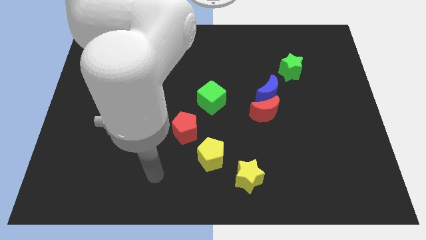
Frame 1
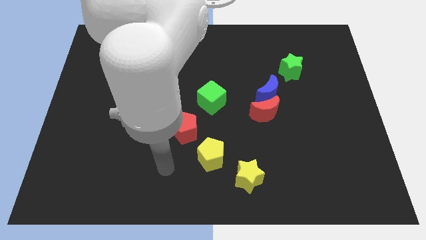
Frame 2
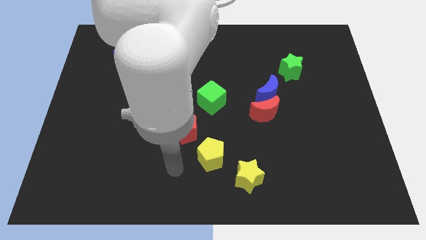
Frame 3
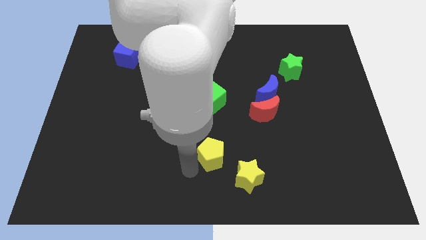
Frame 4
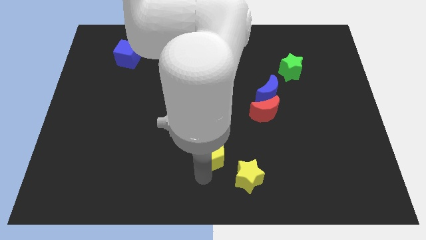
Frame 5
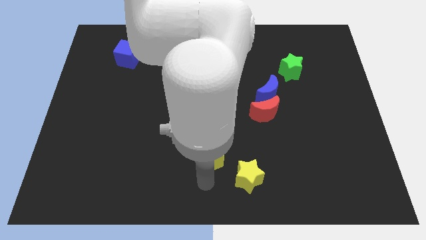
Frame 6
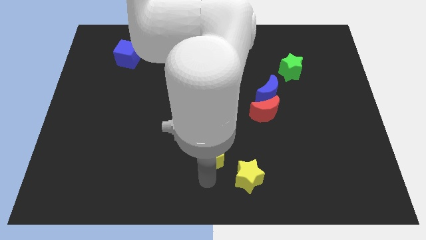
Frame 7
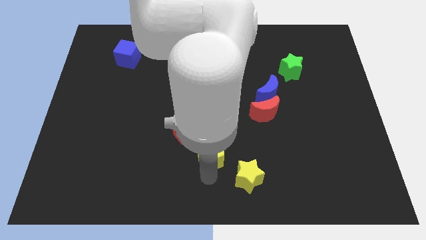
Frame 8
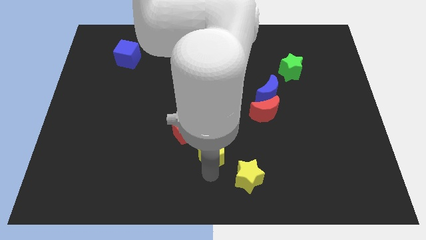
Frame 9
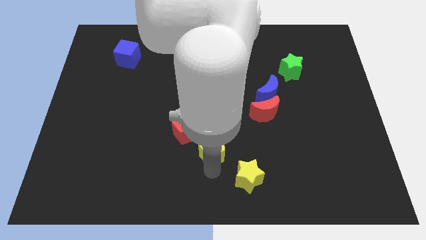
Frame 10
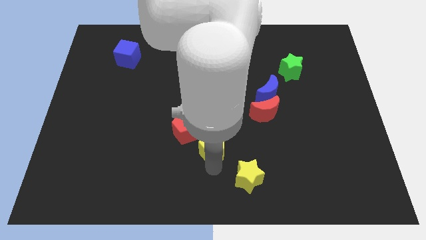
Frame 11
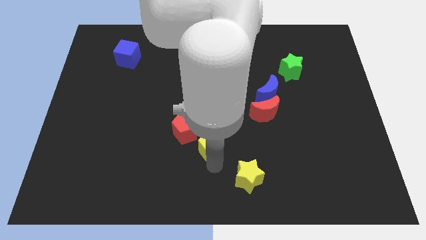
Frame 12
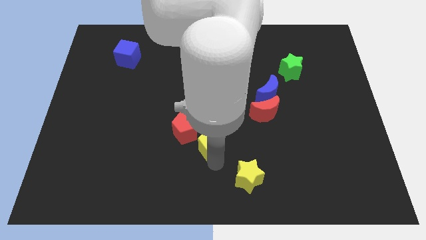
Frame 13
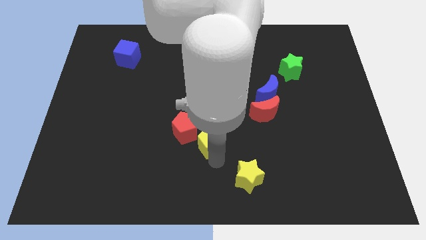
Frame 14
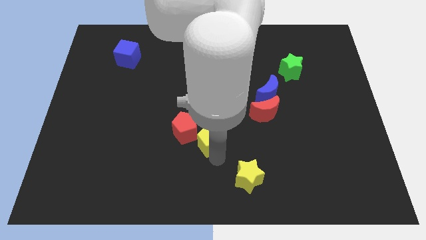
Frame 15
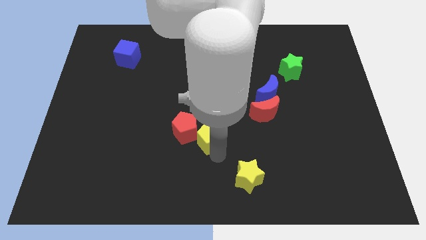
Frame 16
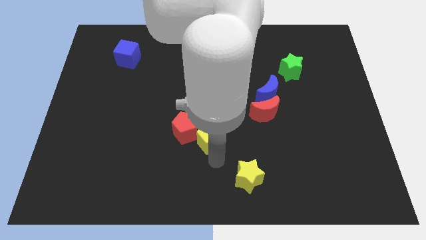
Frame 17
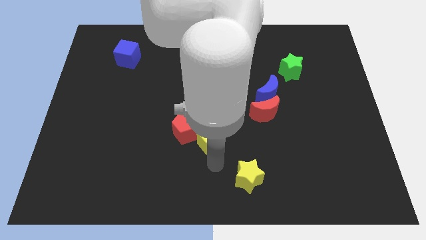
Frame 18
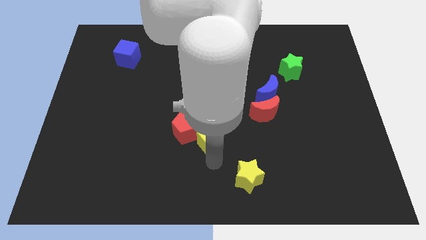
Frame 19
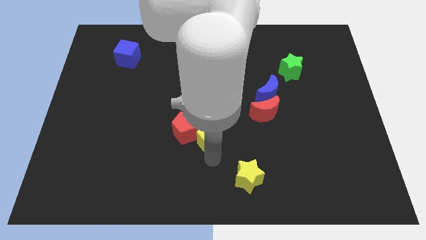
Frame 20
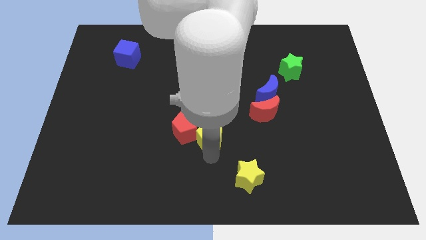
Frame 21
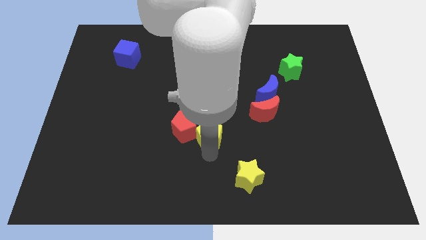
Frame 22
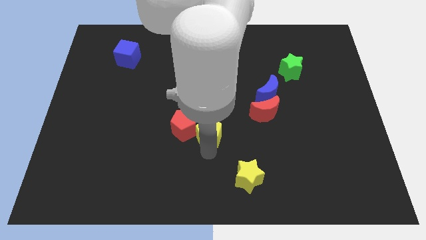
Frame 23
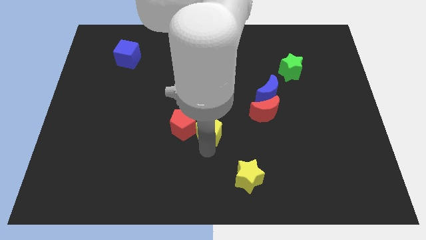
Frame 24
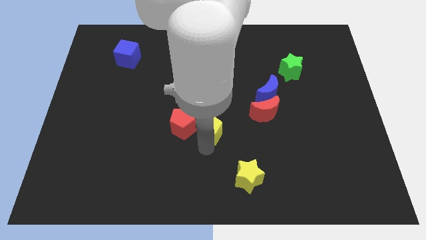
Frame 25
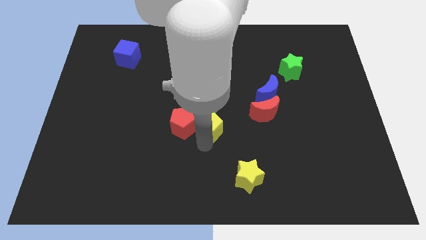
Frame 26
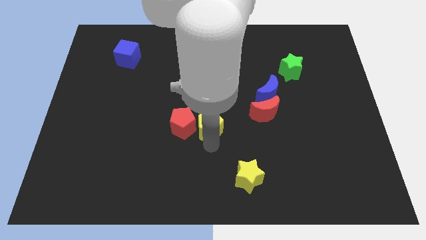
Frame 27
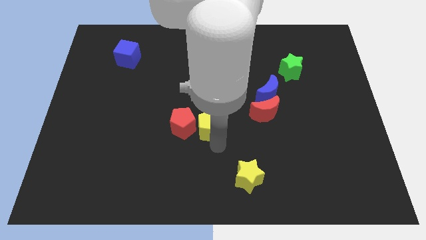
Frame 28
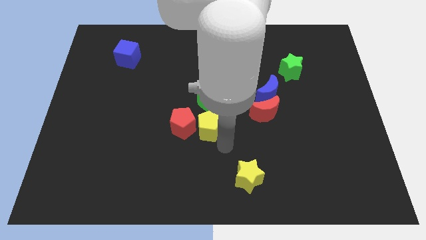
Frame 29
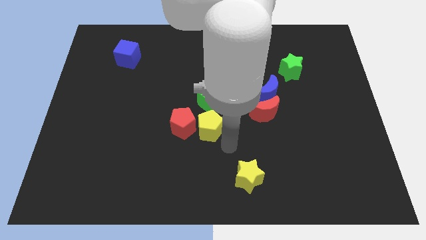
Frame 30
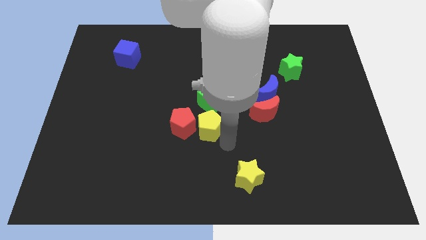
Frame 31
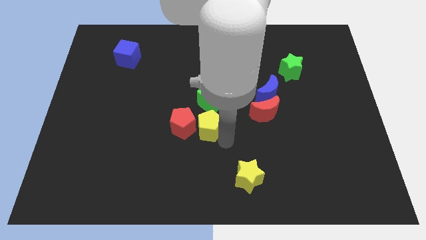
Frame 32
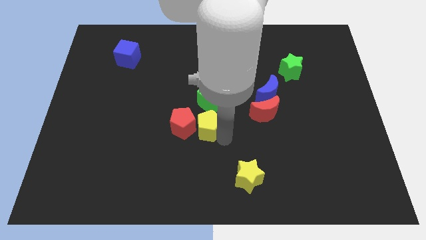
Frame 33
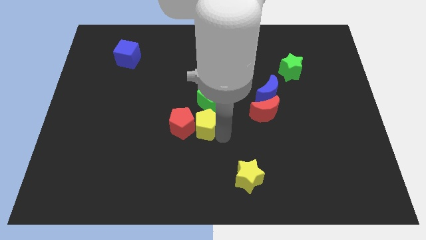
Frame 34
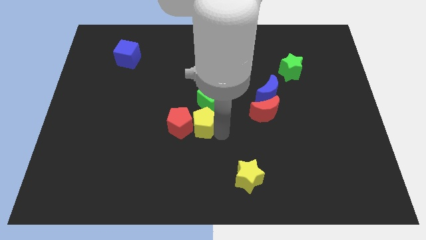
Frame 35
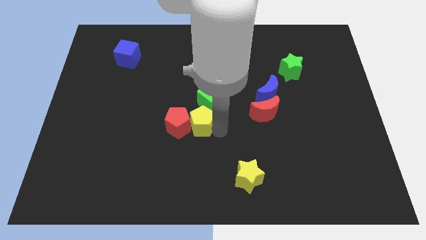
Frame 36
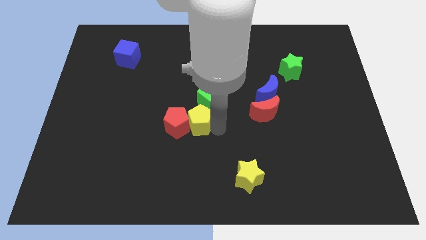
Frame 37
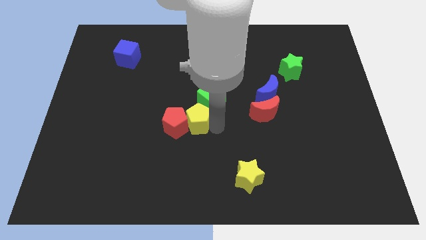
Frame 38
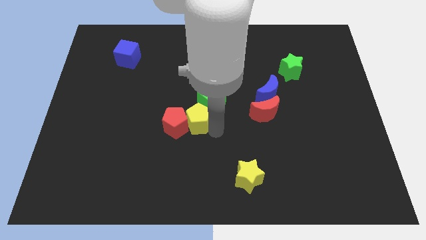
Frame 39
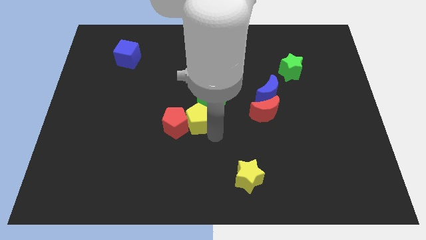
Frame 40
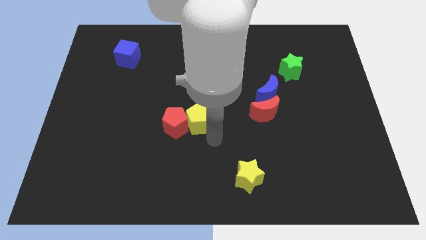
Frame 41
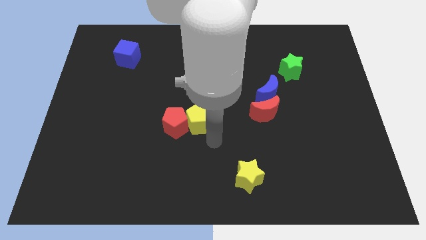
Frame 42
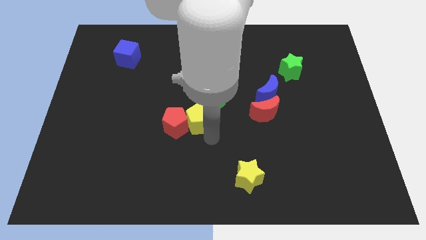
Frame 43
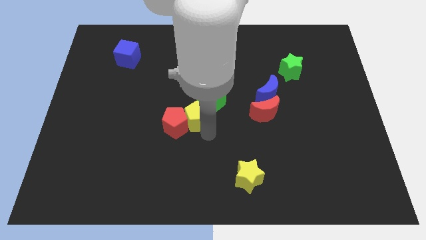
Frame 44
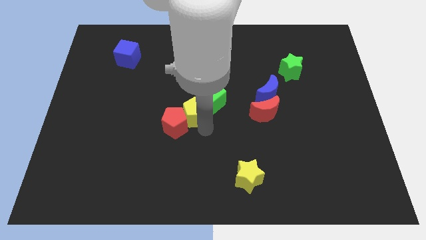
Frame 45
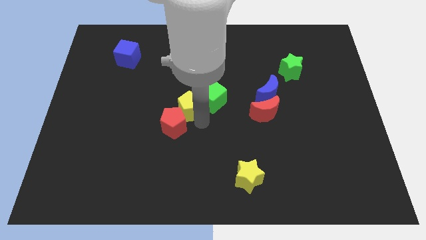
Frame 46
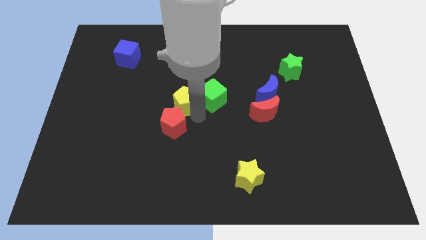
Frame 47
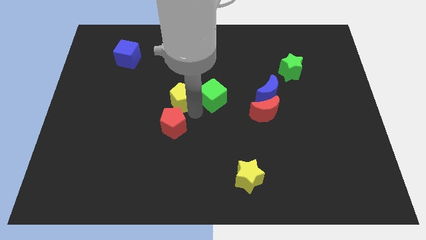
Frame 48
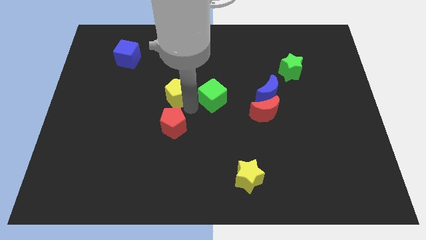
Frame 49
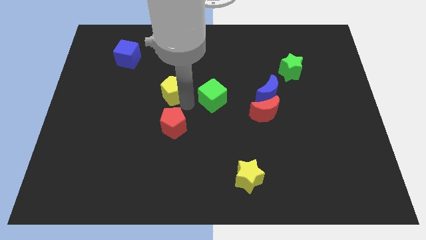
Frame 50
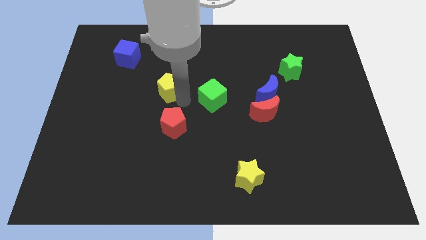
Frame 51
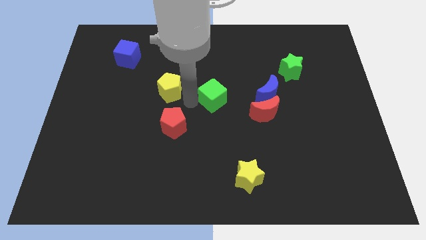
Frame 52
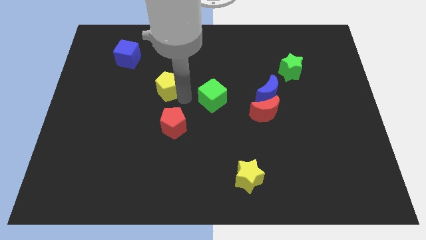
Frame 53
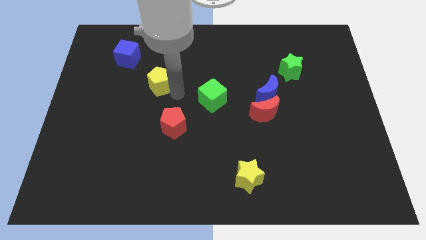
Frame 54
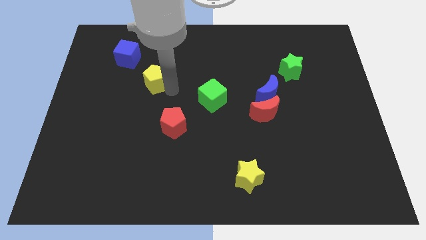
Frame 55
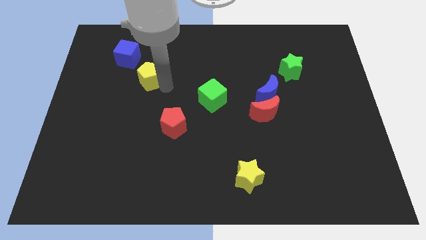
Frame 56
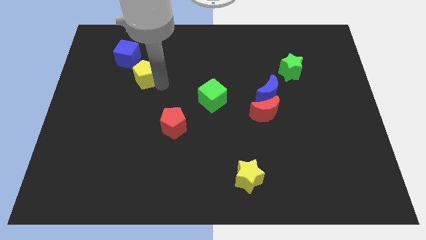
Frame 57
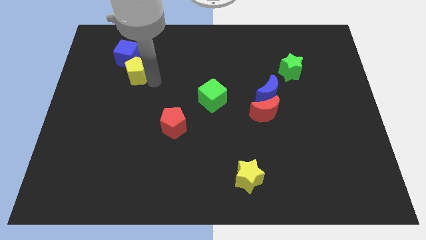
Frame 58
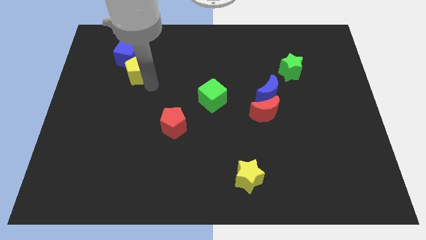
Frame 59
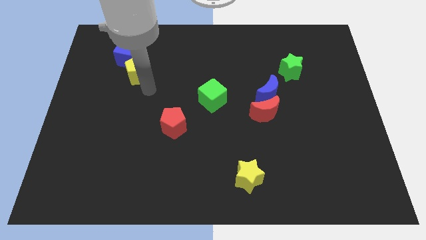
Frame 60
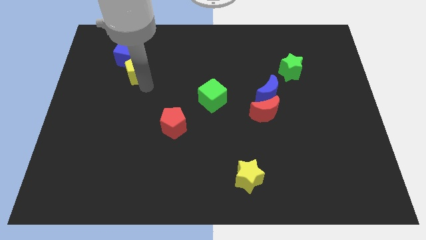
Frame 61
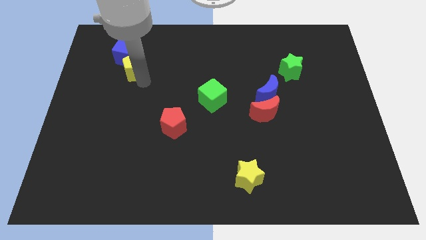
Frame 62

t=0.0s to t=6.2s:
move the yellow pentagon towards the blue cube

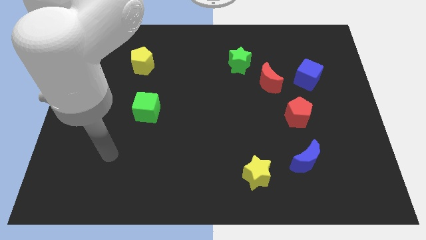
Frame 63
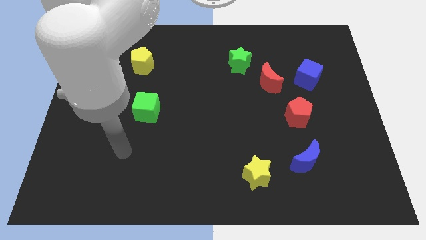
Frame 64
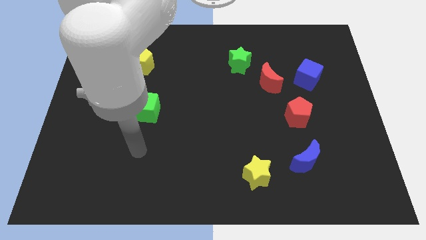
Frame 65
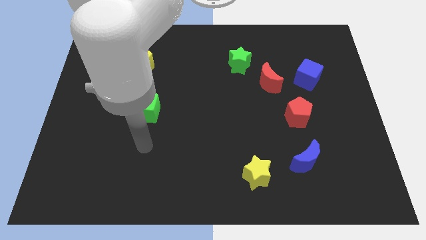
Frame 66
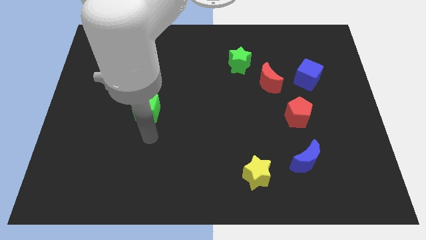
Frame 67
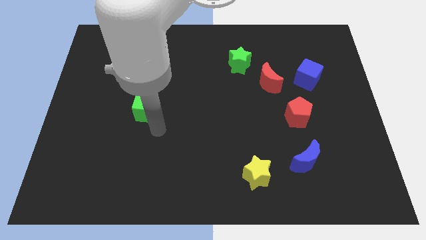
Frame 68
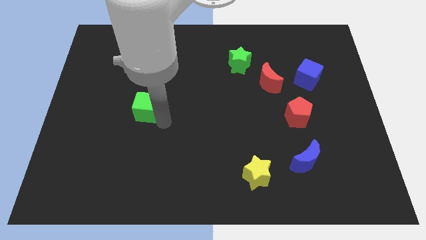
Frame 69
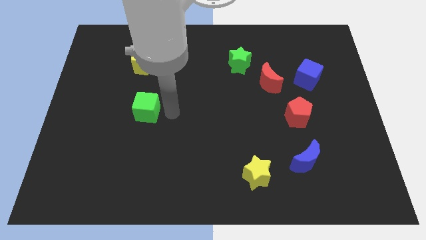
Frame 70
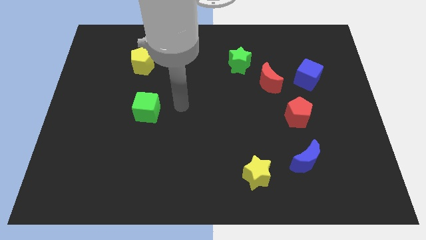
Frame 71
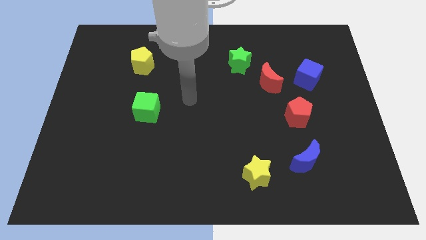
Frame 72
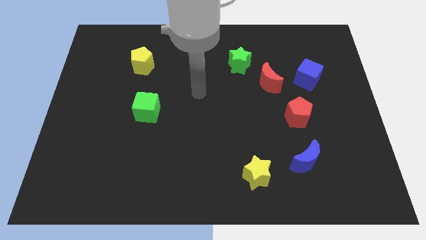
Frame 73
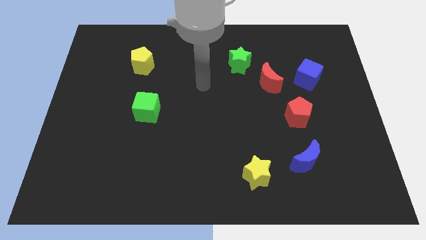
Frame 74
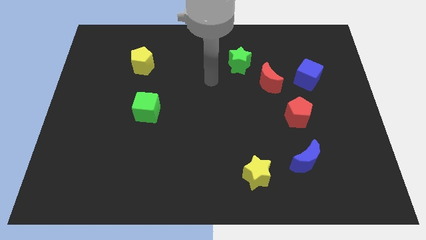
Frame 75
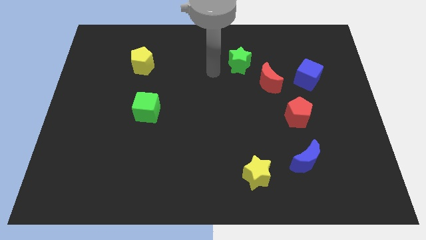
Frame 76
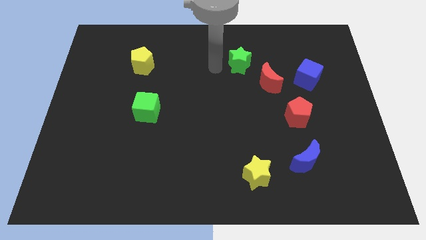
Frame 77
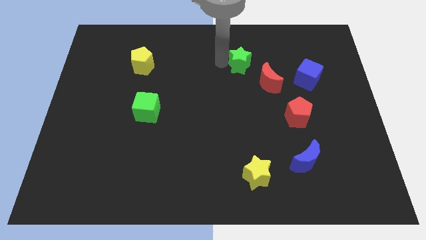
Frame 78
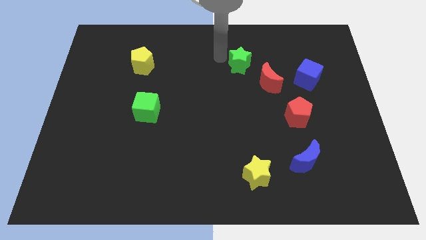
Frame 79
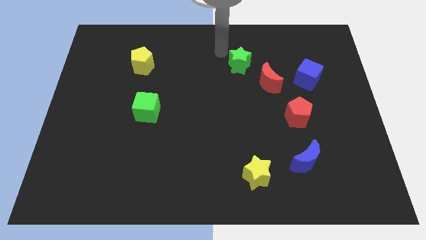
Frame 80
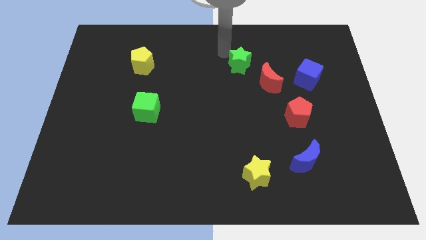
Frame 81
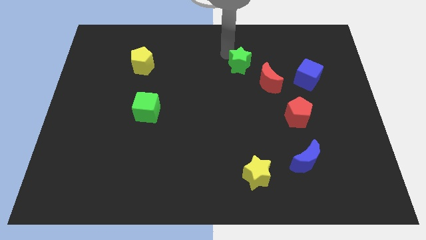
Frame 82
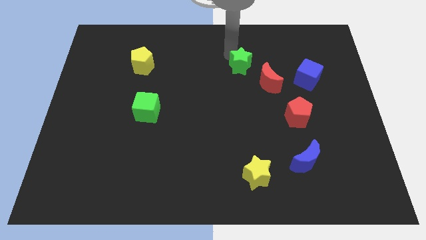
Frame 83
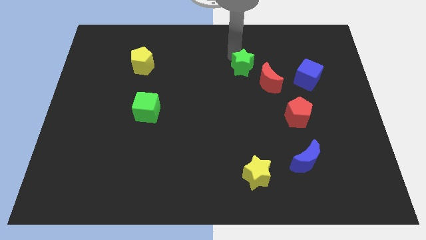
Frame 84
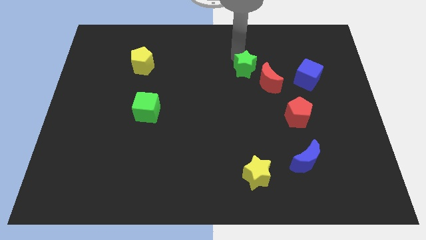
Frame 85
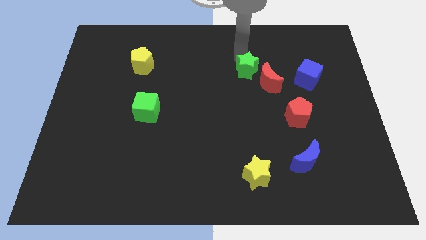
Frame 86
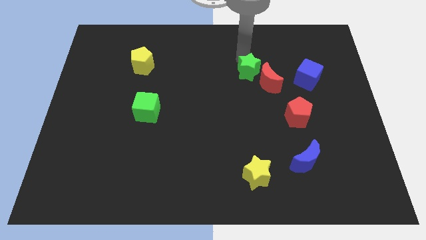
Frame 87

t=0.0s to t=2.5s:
push the green star towards the red moon
